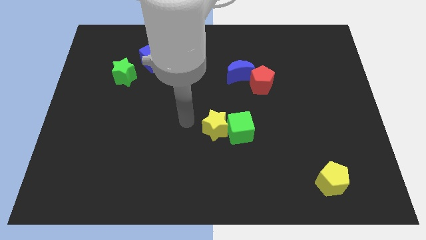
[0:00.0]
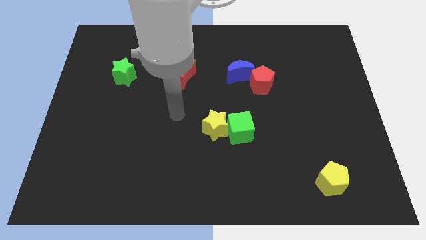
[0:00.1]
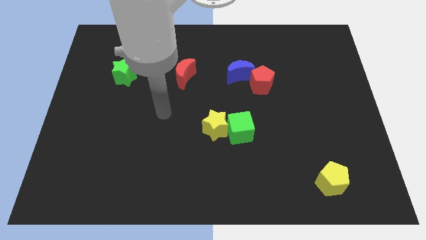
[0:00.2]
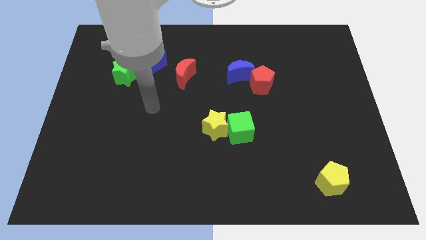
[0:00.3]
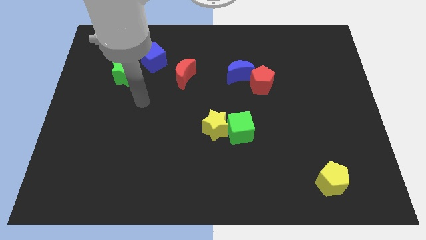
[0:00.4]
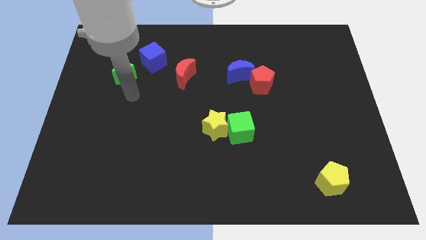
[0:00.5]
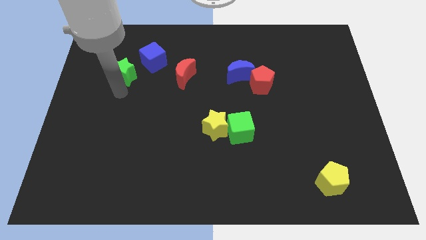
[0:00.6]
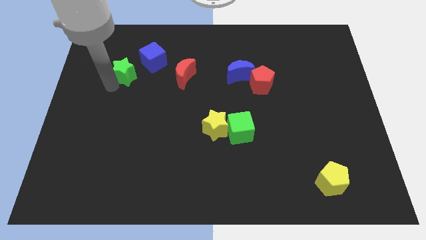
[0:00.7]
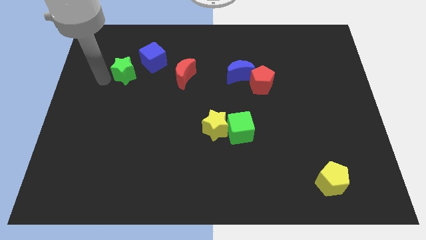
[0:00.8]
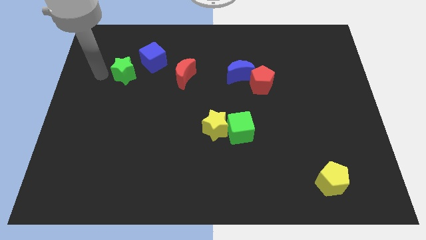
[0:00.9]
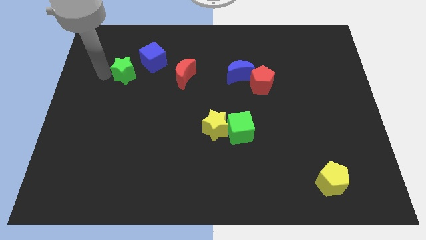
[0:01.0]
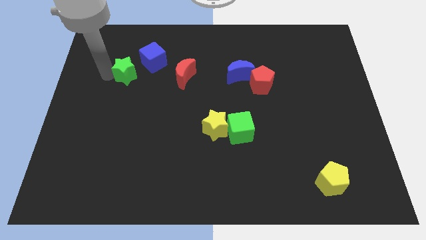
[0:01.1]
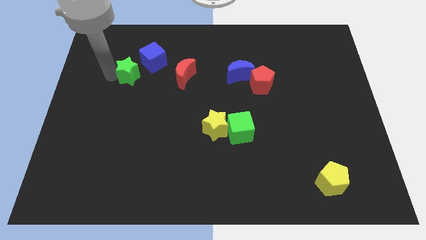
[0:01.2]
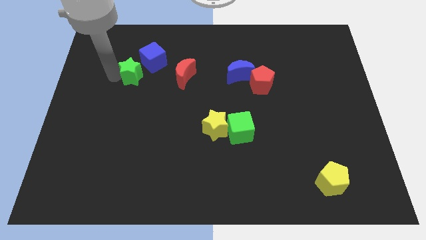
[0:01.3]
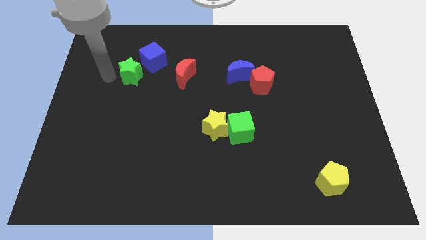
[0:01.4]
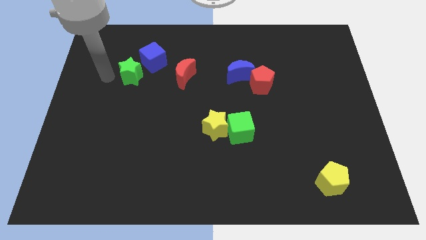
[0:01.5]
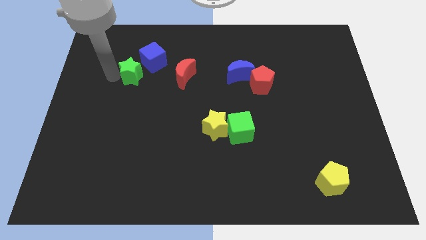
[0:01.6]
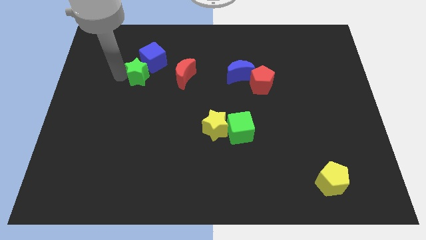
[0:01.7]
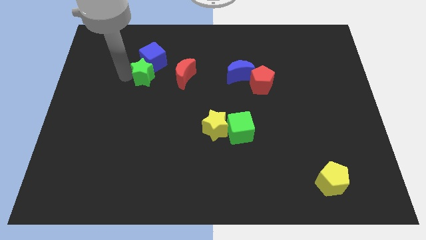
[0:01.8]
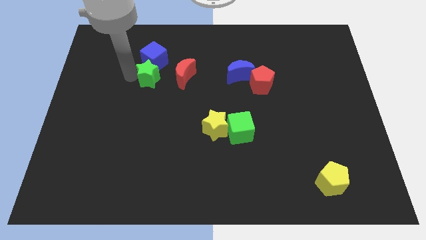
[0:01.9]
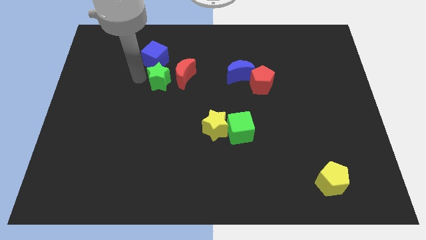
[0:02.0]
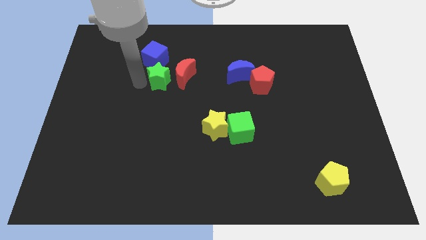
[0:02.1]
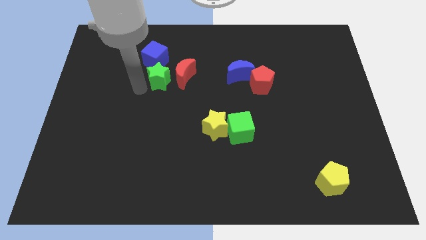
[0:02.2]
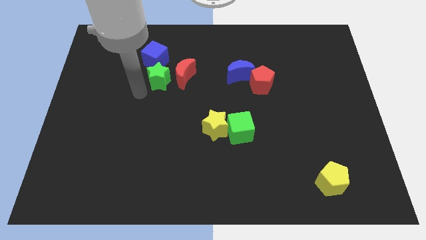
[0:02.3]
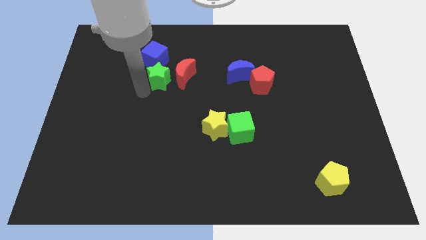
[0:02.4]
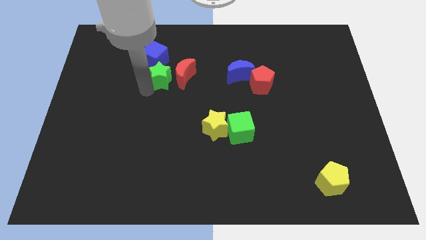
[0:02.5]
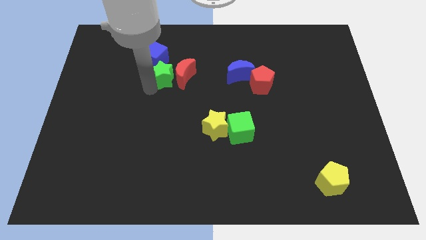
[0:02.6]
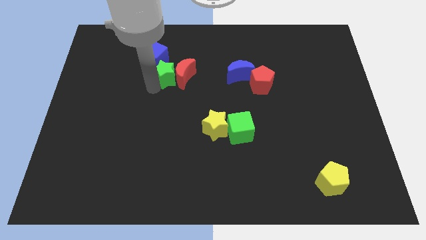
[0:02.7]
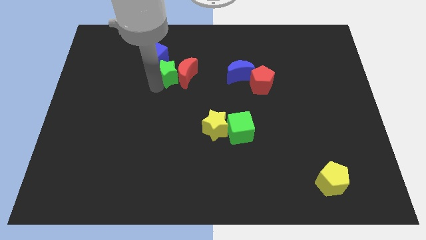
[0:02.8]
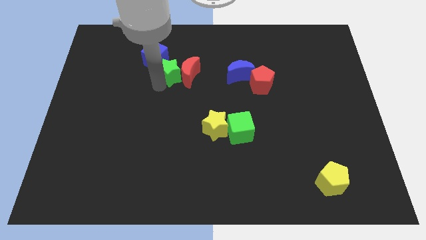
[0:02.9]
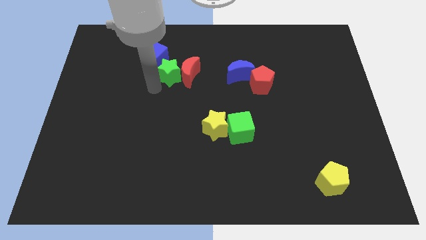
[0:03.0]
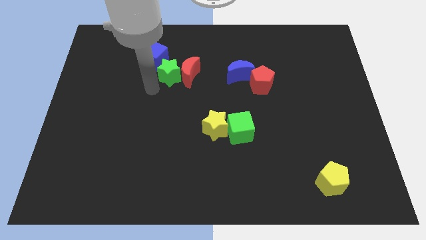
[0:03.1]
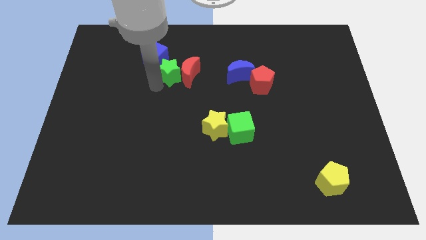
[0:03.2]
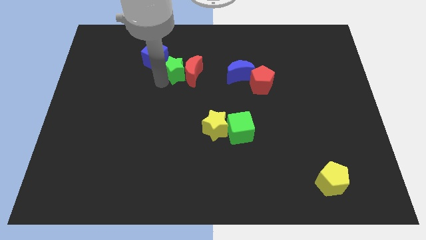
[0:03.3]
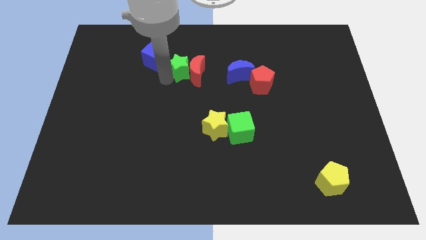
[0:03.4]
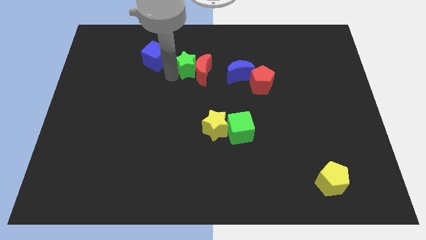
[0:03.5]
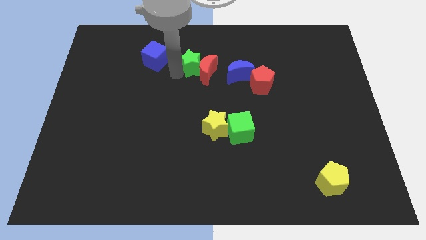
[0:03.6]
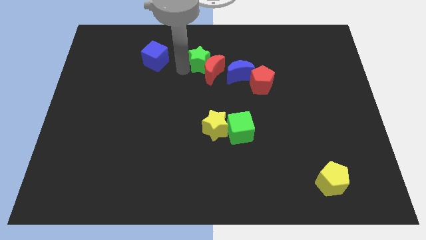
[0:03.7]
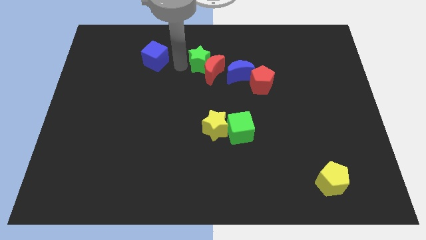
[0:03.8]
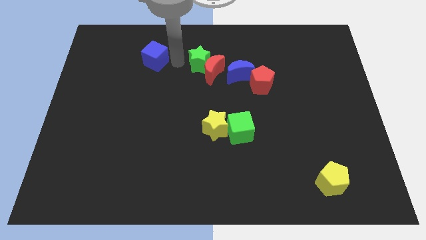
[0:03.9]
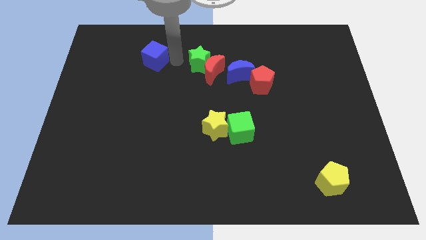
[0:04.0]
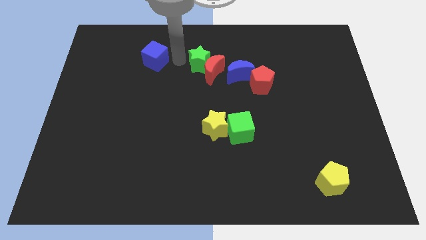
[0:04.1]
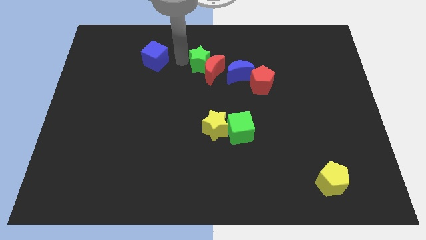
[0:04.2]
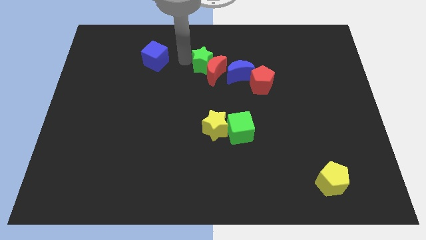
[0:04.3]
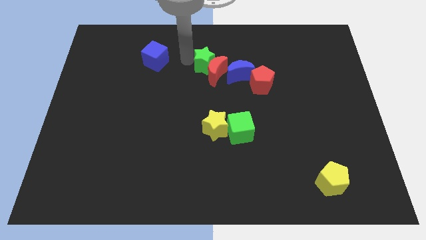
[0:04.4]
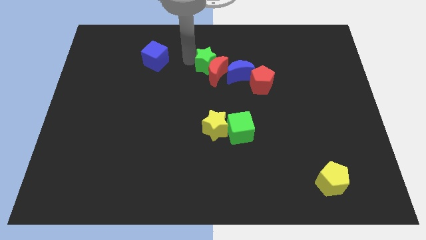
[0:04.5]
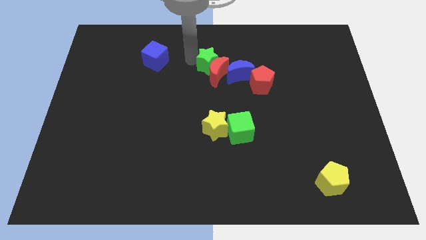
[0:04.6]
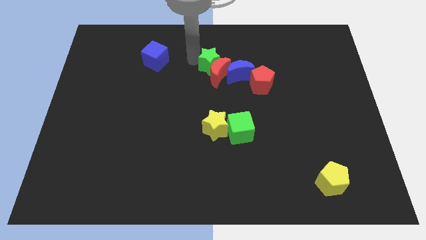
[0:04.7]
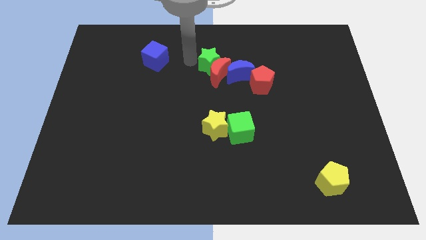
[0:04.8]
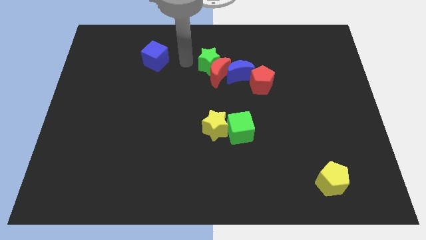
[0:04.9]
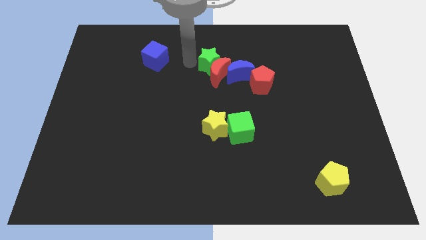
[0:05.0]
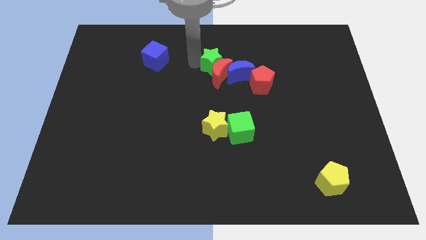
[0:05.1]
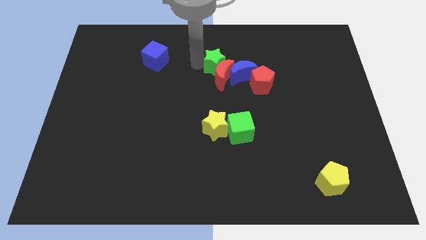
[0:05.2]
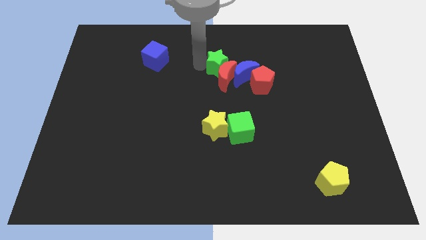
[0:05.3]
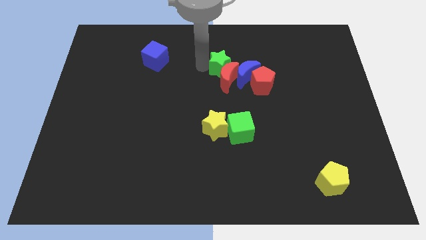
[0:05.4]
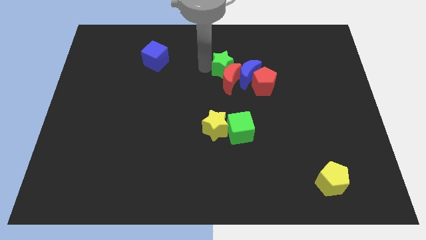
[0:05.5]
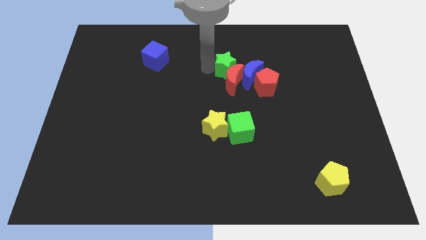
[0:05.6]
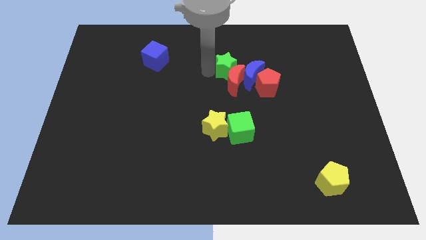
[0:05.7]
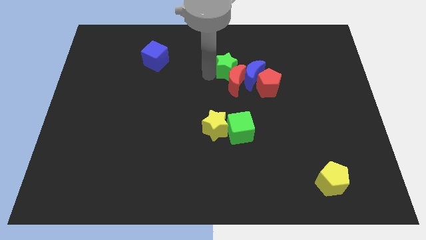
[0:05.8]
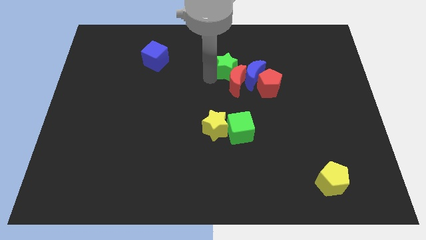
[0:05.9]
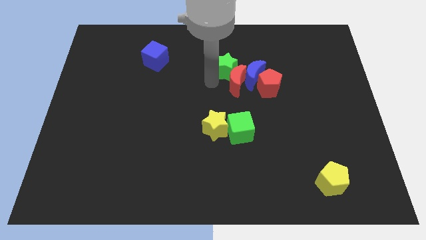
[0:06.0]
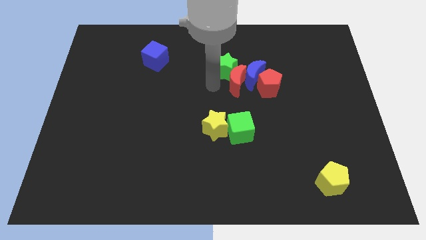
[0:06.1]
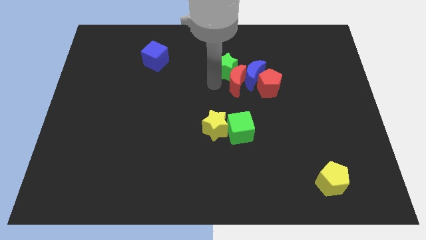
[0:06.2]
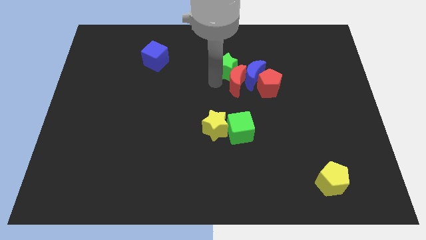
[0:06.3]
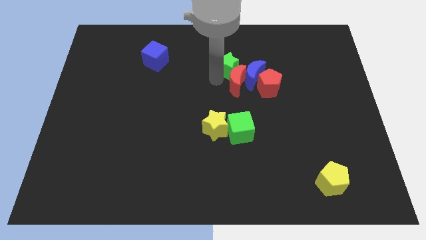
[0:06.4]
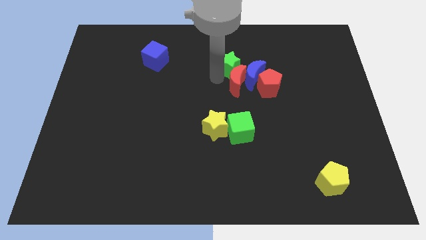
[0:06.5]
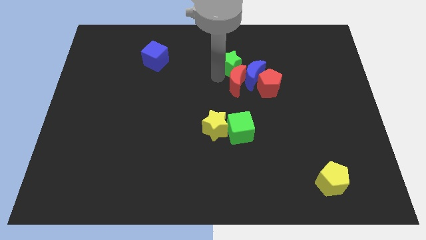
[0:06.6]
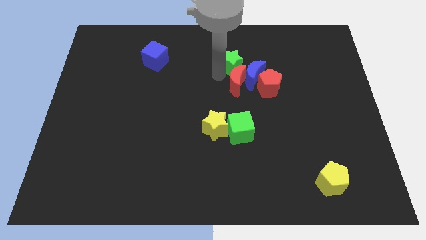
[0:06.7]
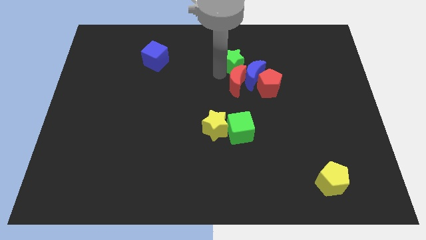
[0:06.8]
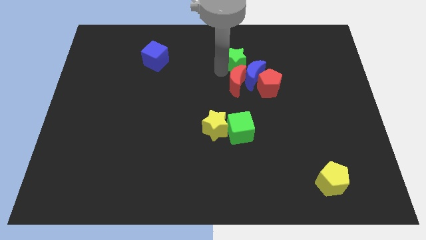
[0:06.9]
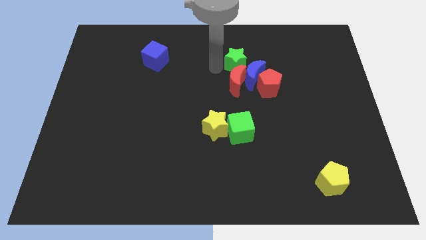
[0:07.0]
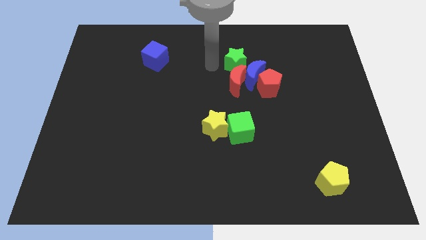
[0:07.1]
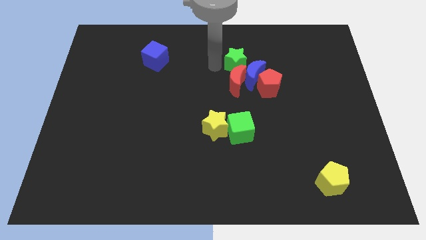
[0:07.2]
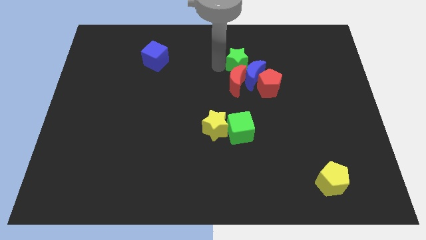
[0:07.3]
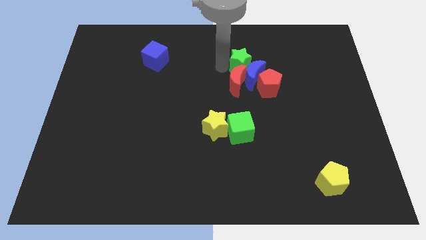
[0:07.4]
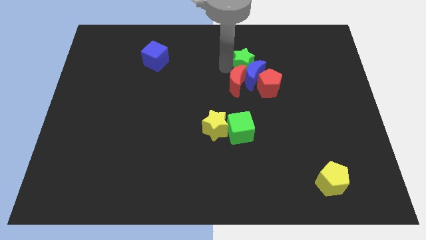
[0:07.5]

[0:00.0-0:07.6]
push the green star to the top right side of the blue moon
